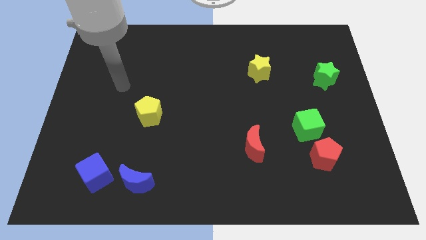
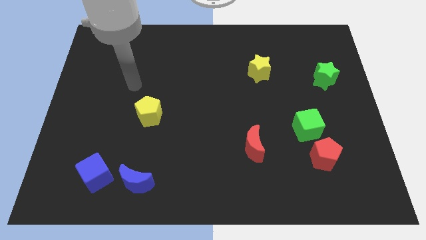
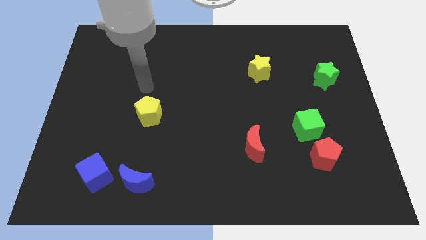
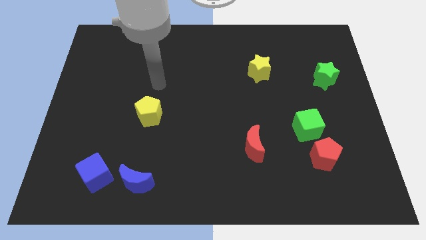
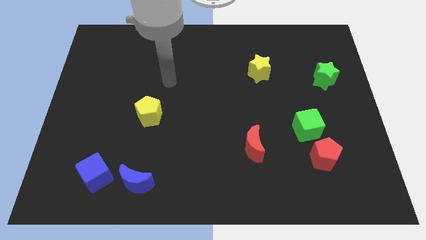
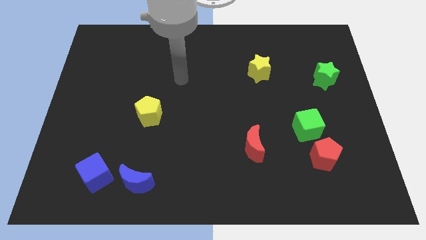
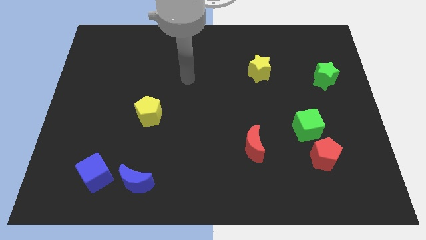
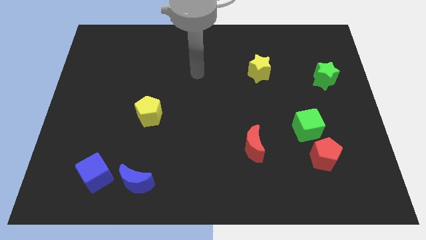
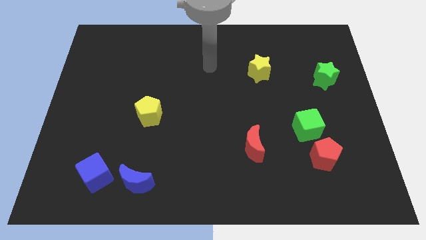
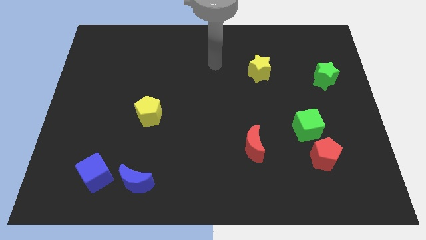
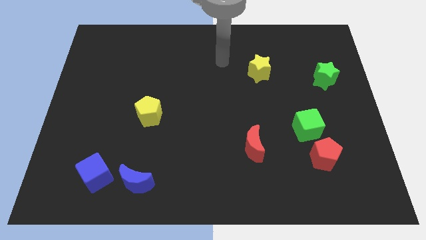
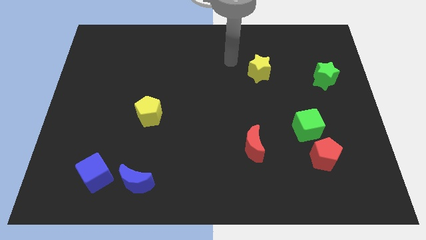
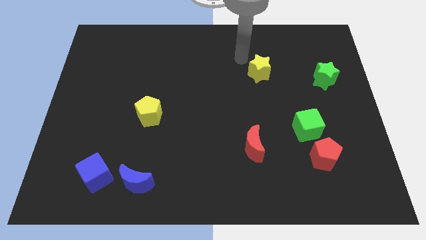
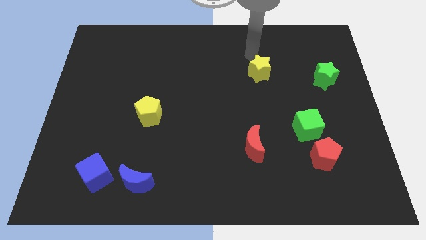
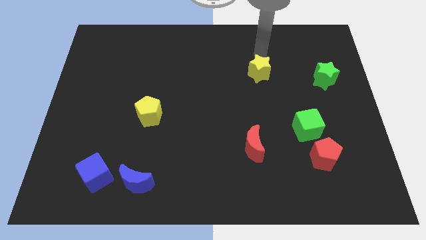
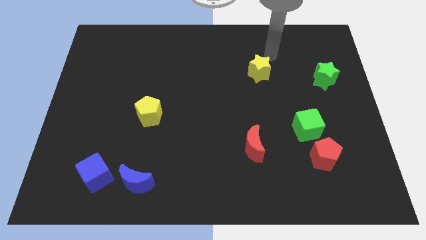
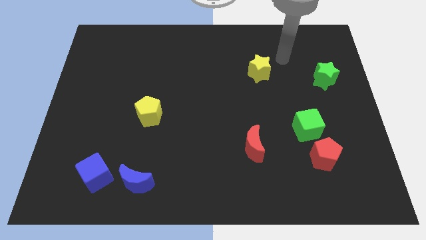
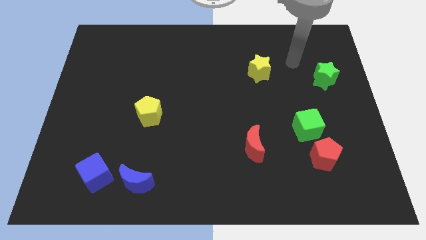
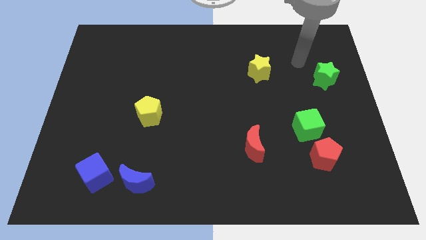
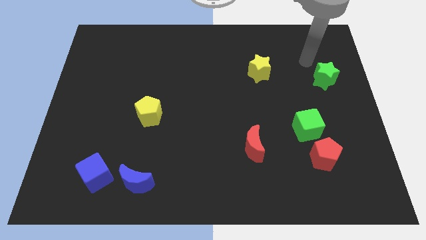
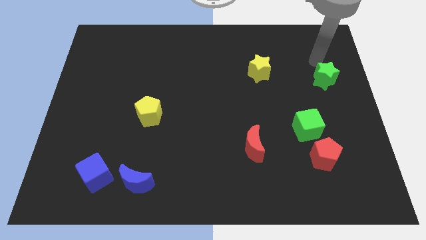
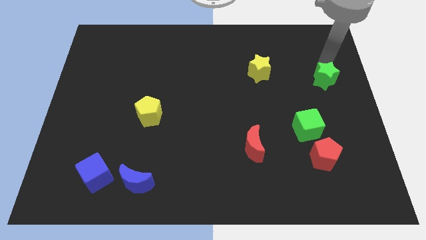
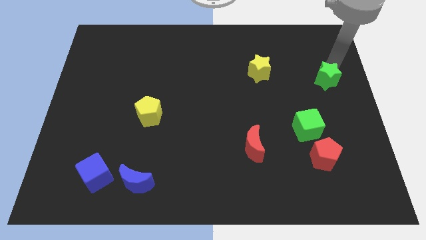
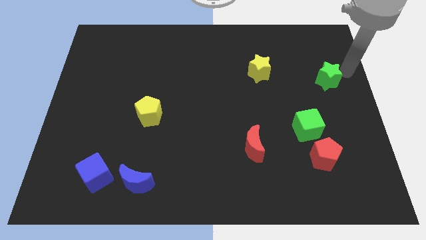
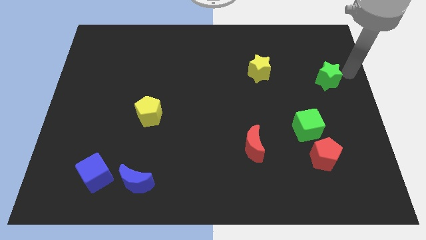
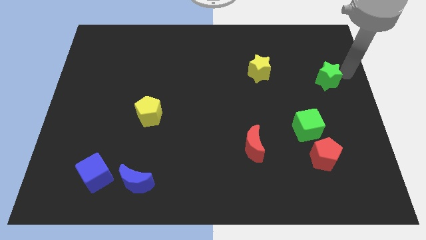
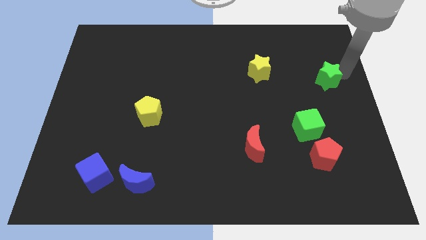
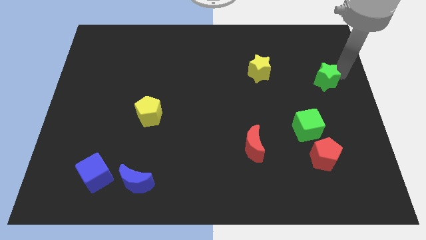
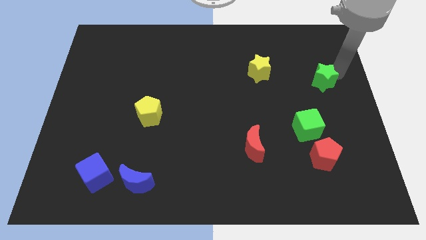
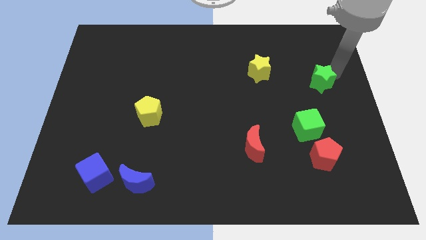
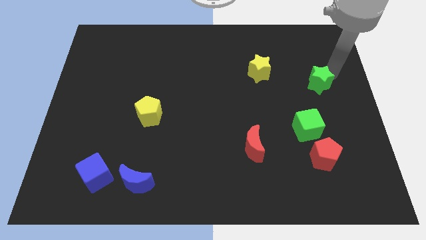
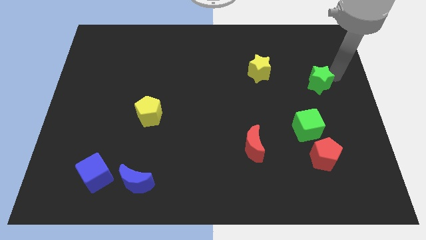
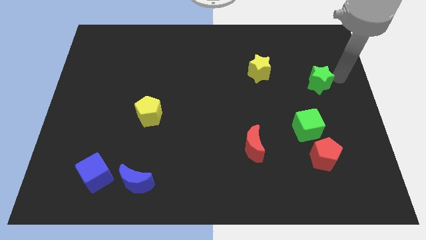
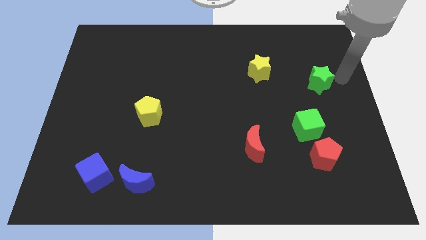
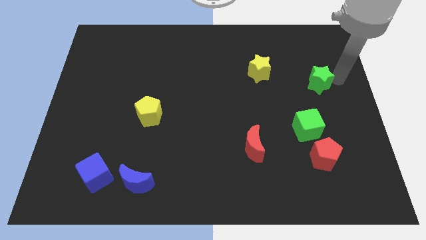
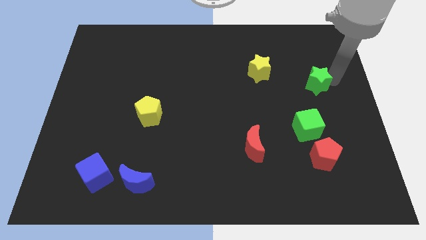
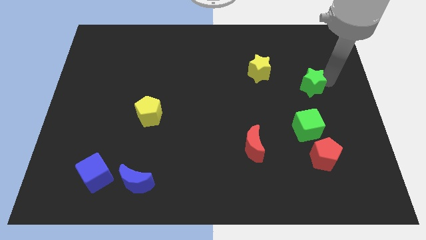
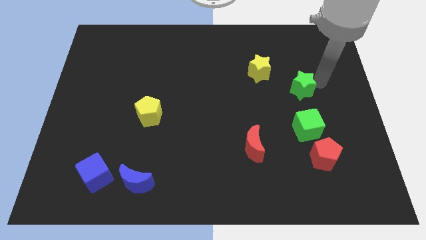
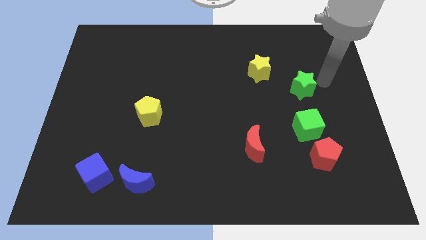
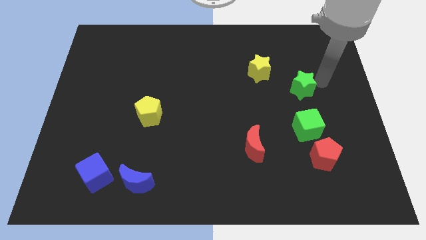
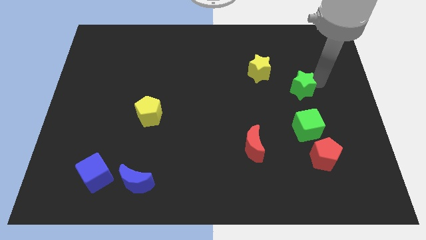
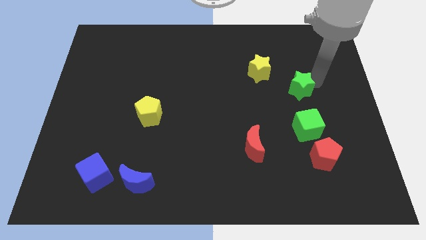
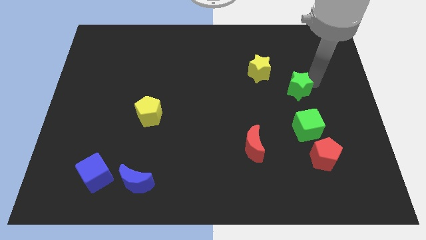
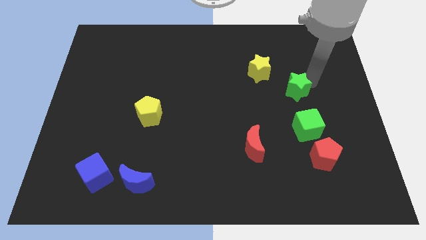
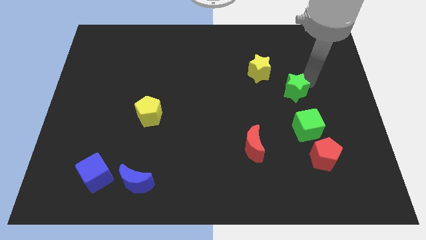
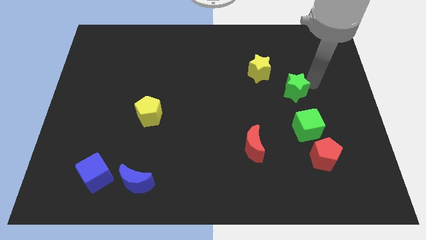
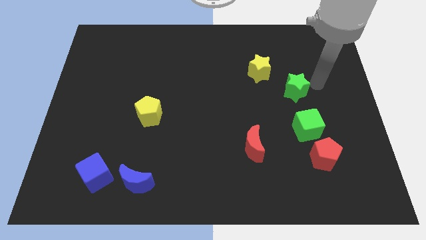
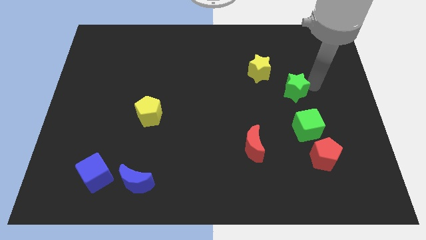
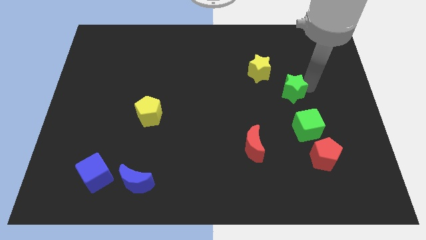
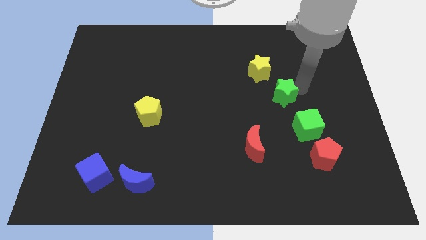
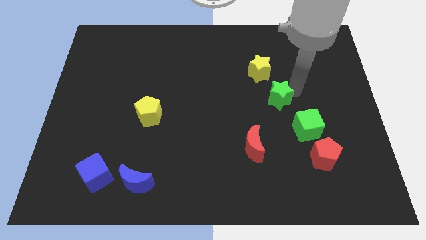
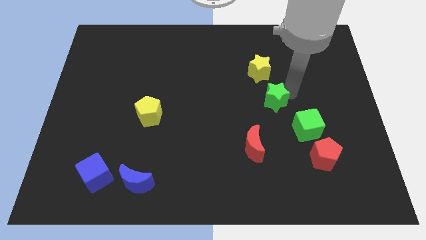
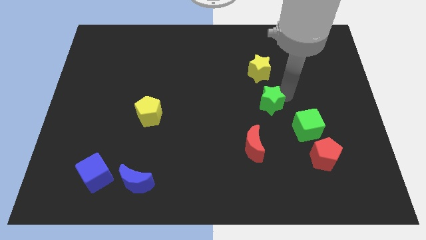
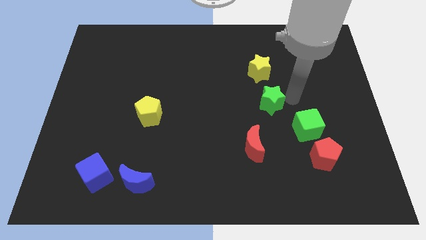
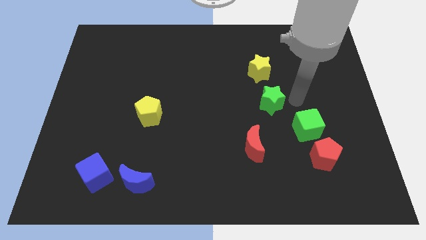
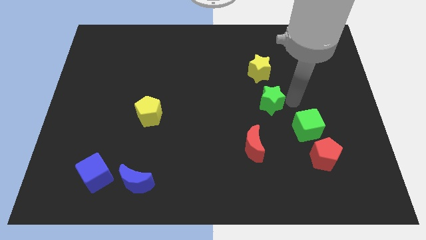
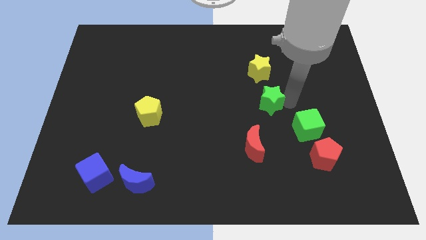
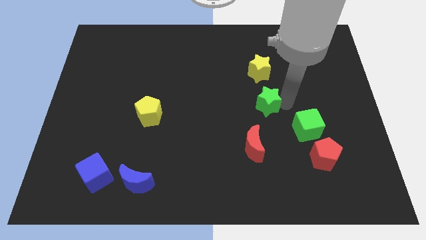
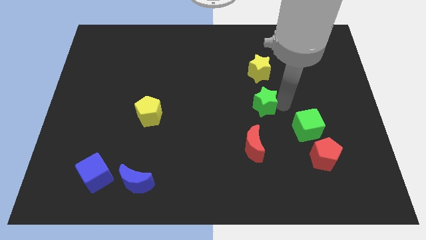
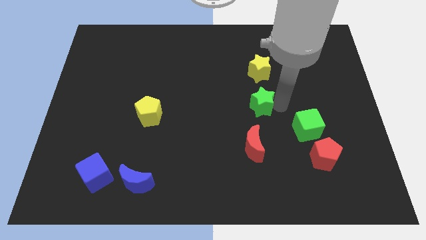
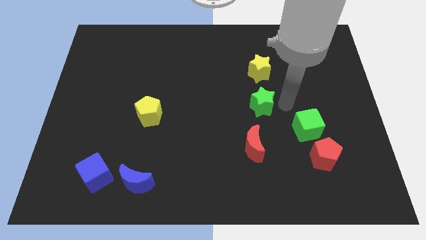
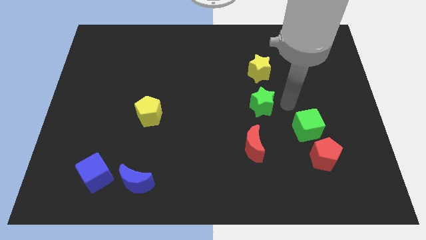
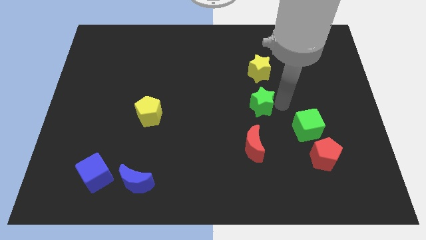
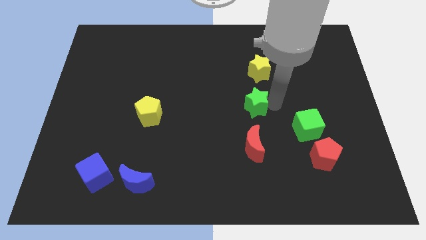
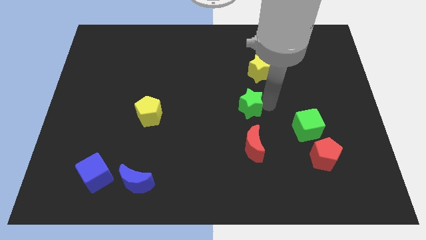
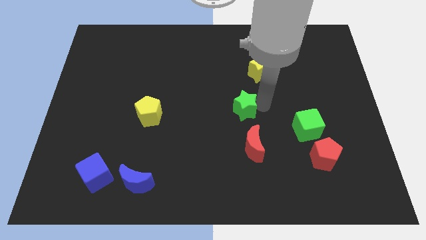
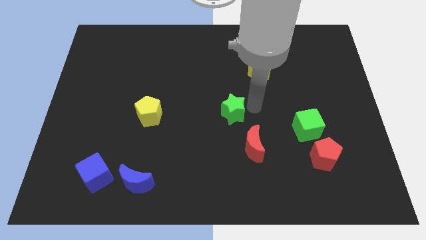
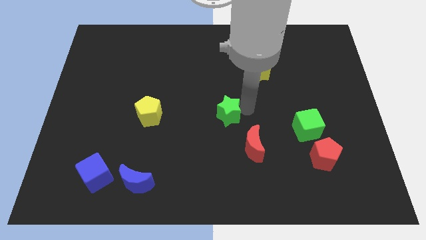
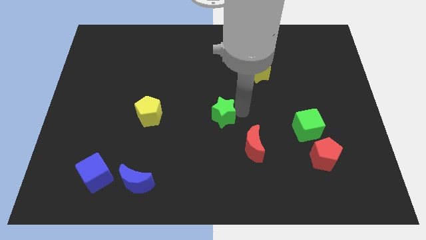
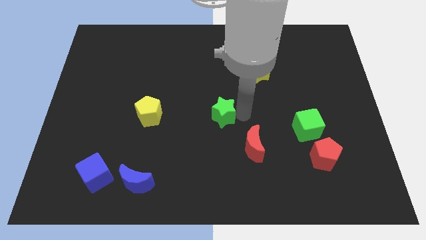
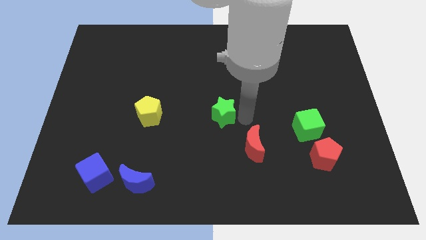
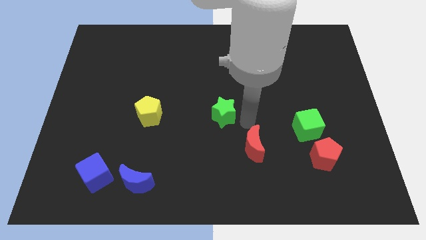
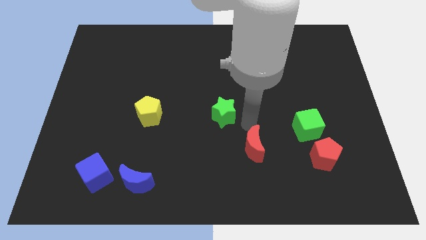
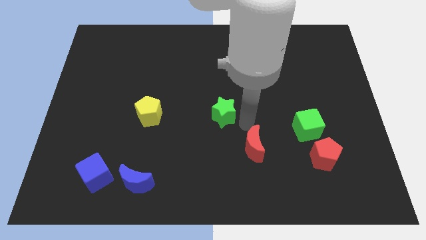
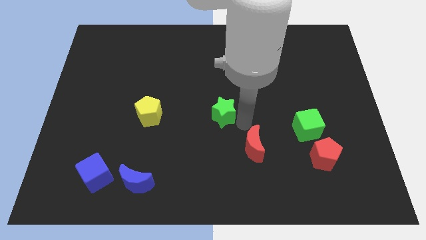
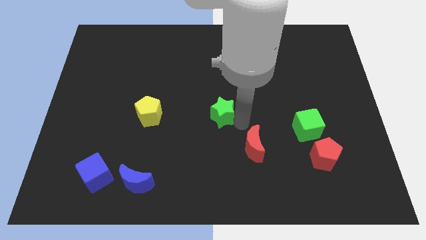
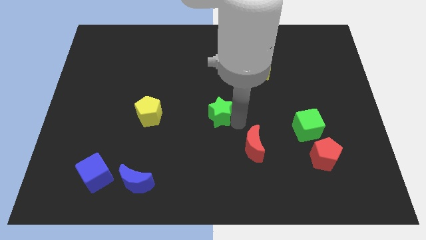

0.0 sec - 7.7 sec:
slide the green star to the right side of the yellow pentagon
